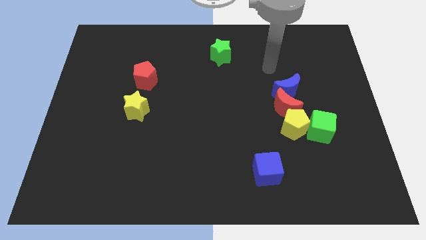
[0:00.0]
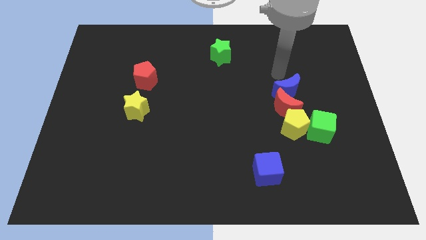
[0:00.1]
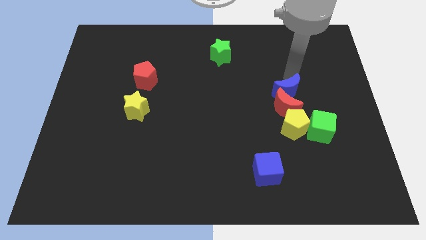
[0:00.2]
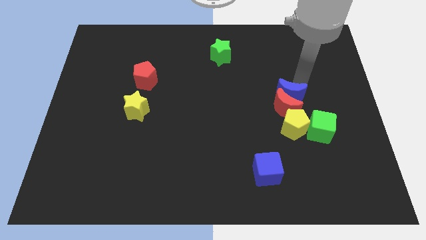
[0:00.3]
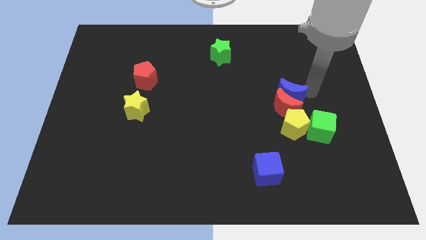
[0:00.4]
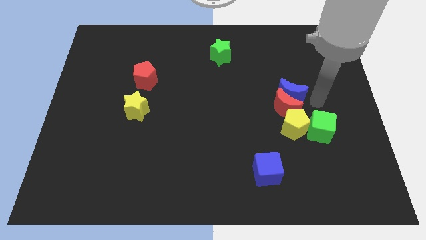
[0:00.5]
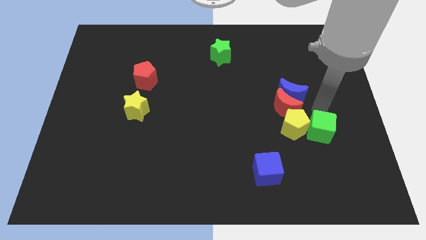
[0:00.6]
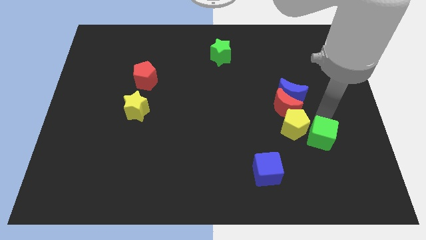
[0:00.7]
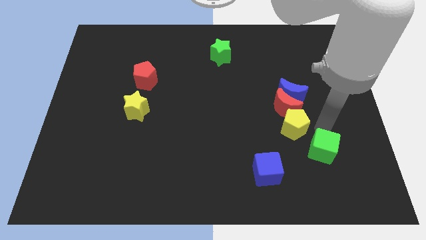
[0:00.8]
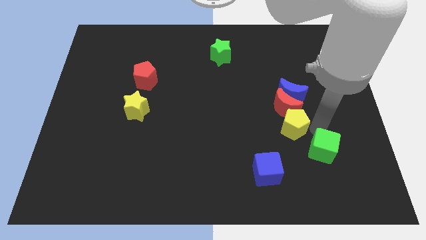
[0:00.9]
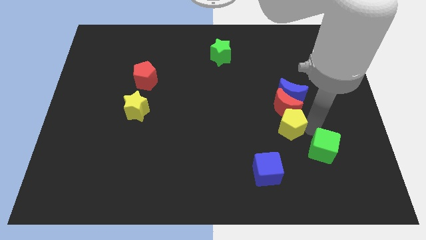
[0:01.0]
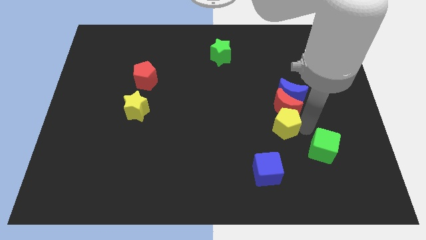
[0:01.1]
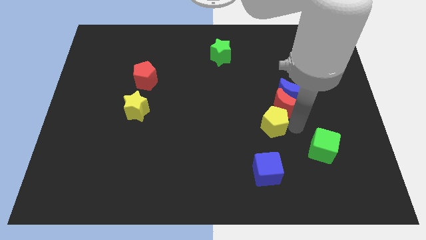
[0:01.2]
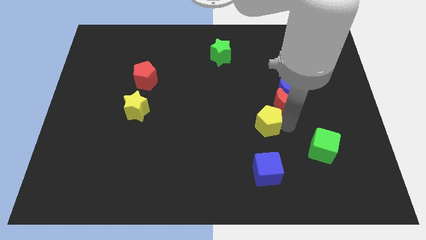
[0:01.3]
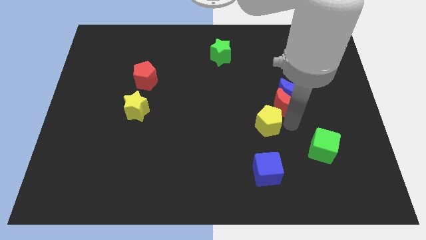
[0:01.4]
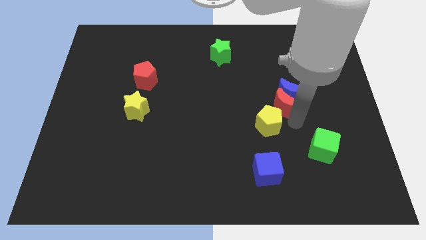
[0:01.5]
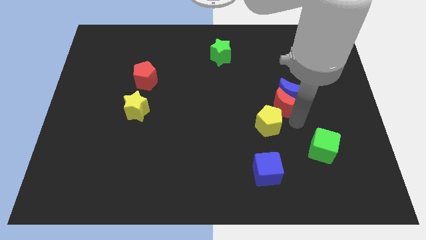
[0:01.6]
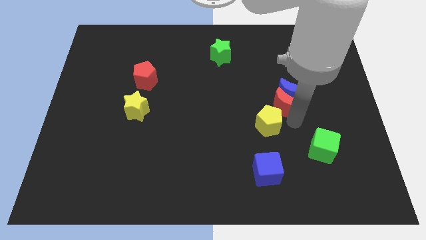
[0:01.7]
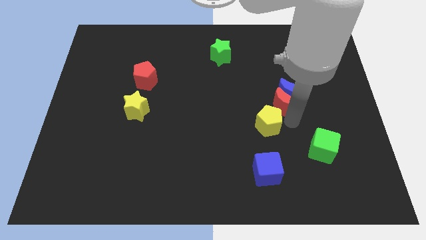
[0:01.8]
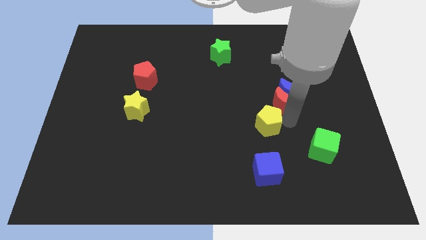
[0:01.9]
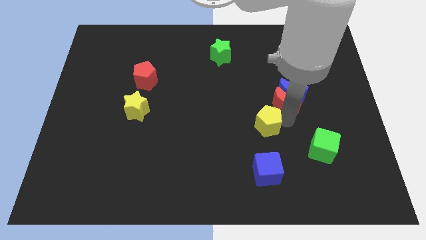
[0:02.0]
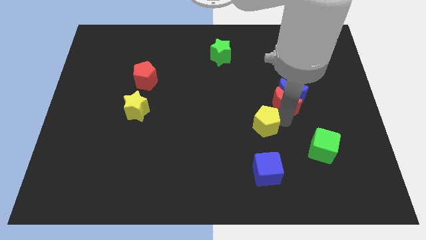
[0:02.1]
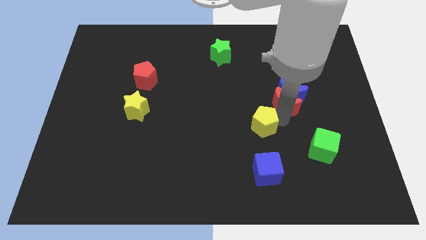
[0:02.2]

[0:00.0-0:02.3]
slightly move the yellow pentagon to the left

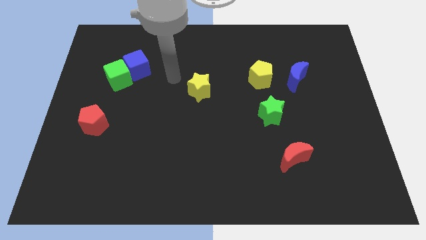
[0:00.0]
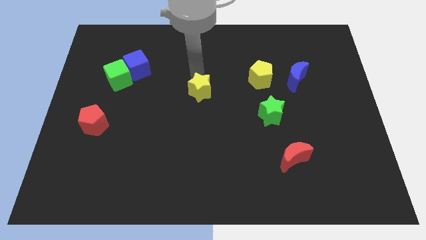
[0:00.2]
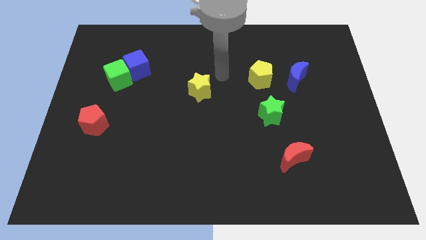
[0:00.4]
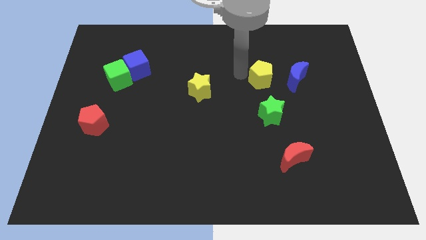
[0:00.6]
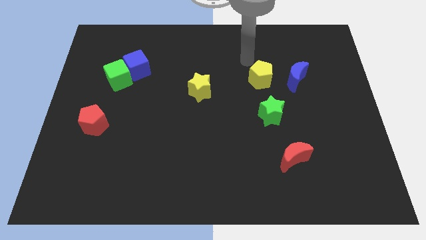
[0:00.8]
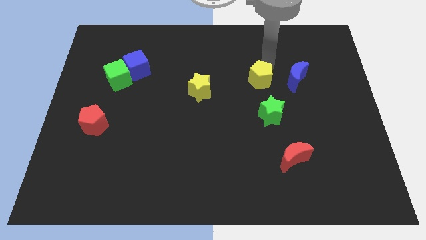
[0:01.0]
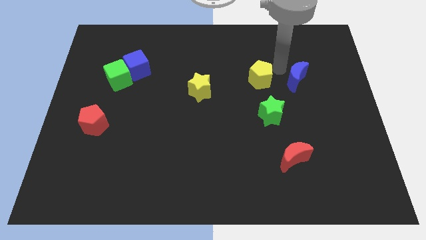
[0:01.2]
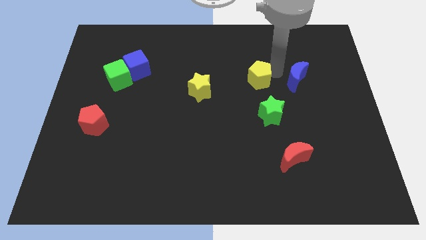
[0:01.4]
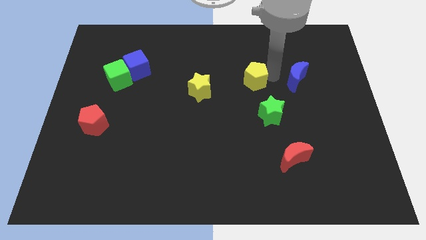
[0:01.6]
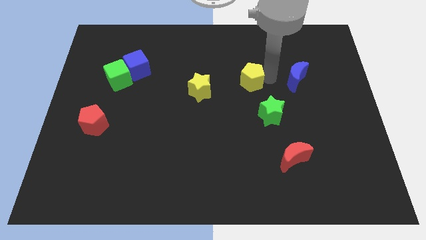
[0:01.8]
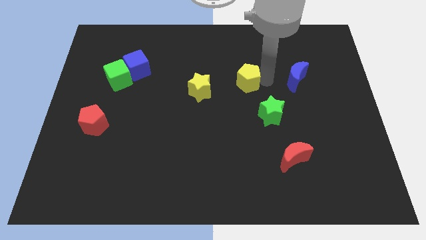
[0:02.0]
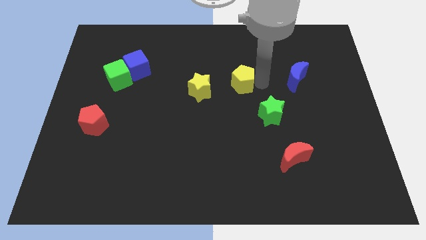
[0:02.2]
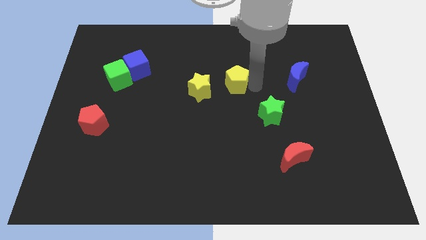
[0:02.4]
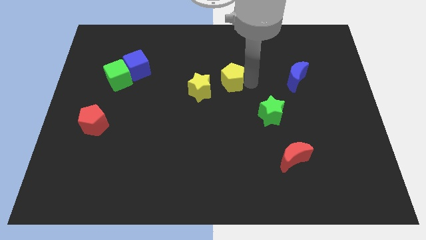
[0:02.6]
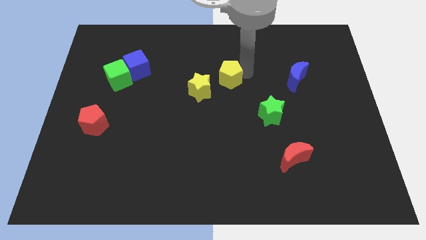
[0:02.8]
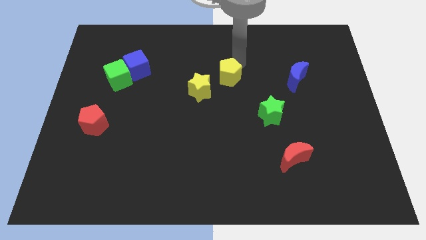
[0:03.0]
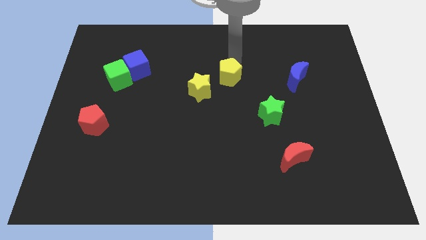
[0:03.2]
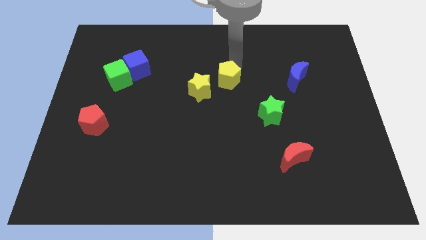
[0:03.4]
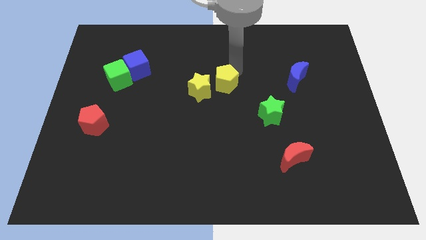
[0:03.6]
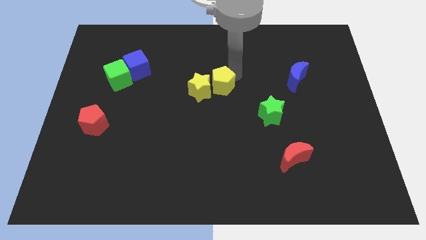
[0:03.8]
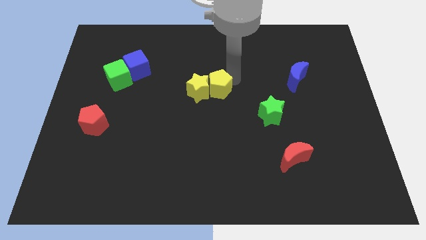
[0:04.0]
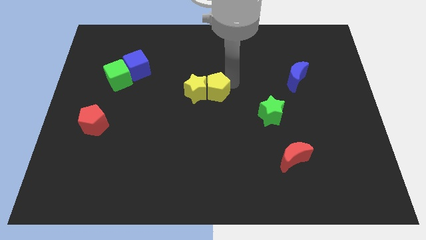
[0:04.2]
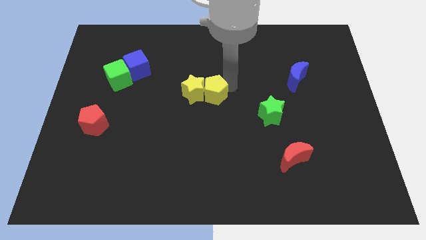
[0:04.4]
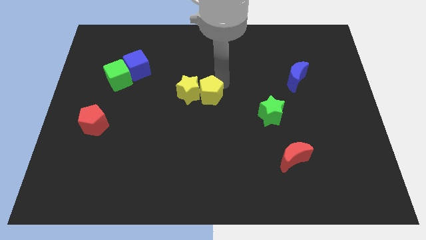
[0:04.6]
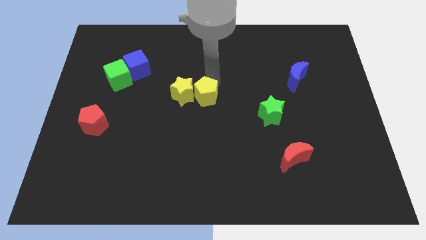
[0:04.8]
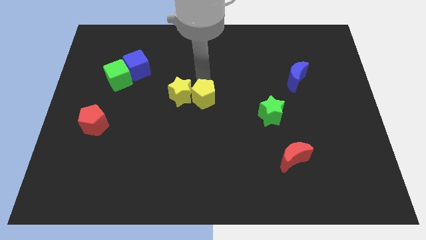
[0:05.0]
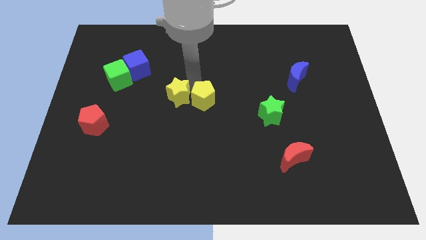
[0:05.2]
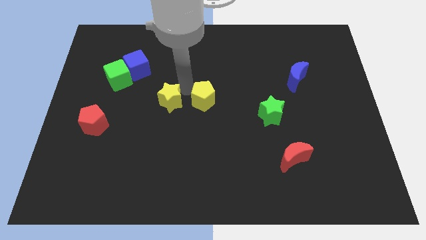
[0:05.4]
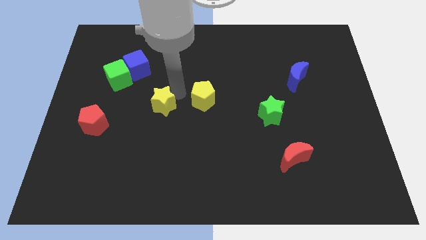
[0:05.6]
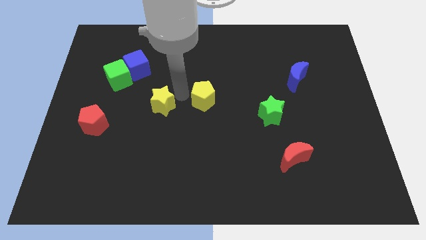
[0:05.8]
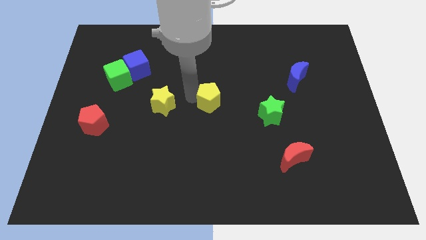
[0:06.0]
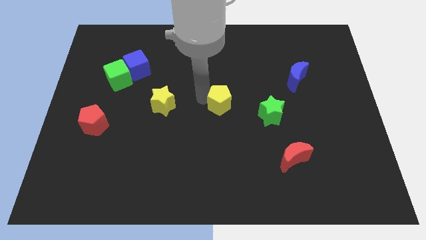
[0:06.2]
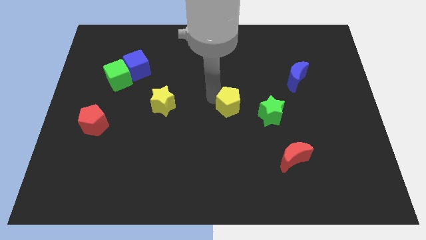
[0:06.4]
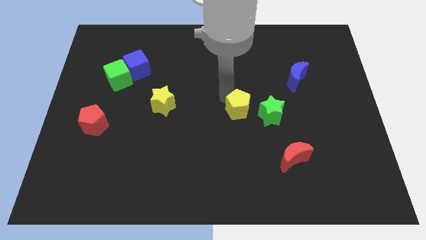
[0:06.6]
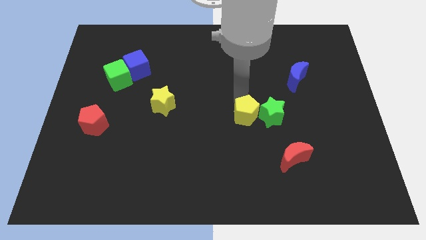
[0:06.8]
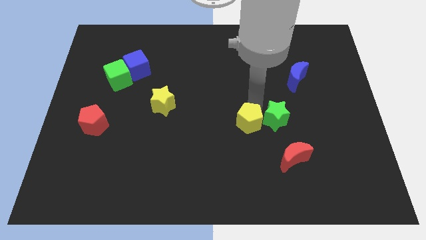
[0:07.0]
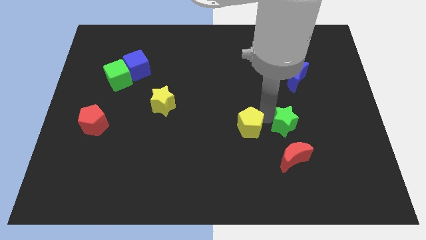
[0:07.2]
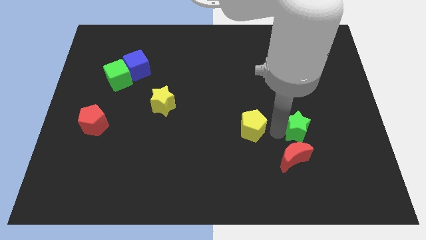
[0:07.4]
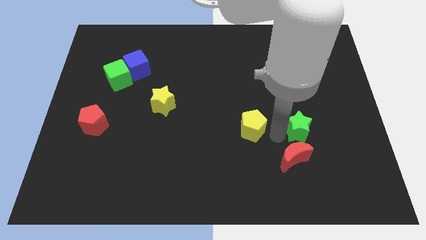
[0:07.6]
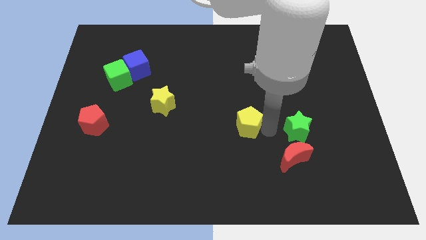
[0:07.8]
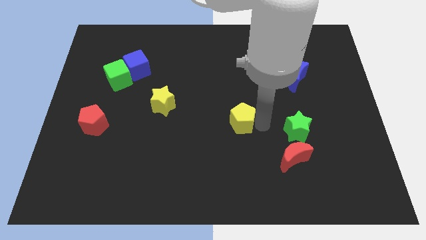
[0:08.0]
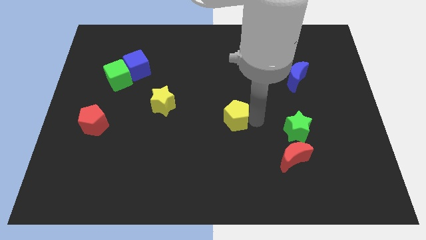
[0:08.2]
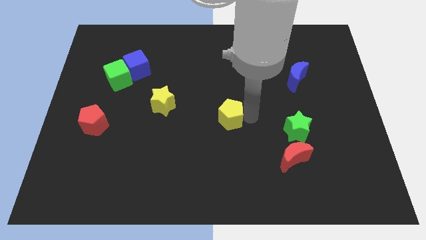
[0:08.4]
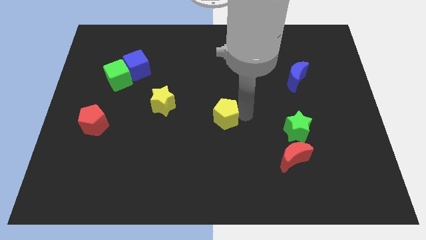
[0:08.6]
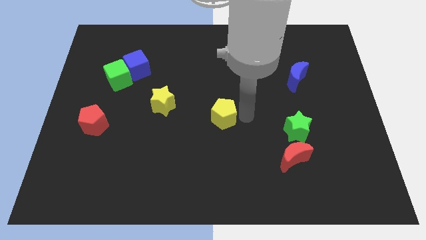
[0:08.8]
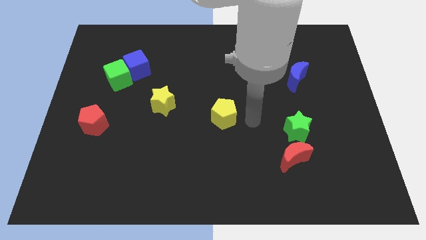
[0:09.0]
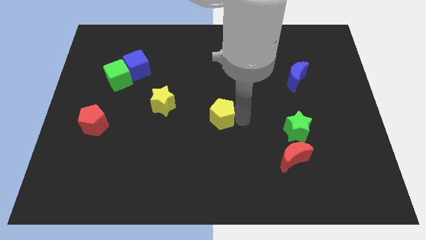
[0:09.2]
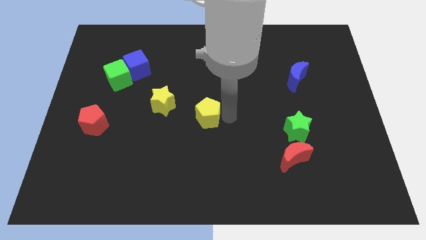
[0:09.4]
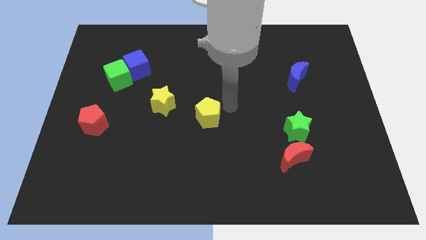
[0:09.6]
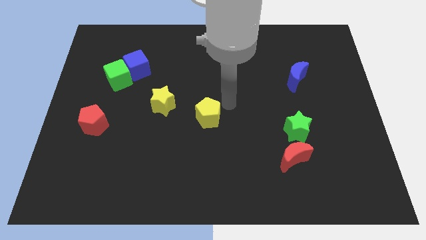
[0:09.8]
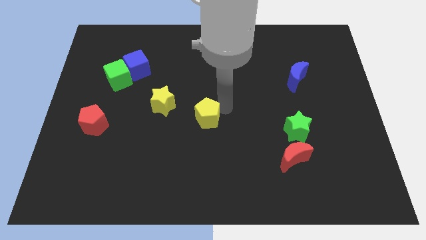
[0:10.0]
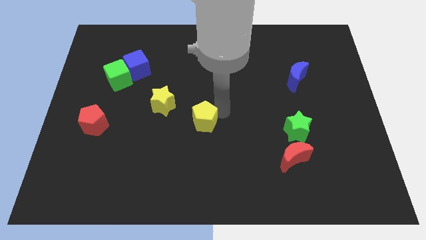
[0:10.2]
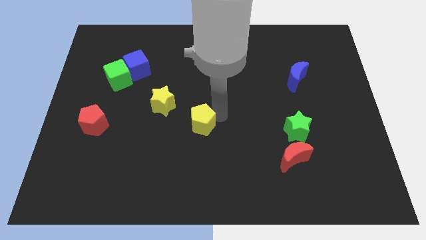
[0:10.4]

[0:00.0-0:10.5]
push the yellow pentagon downwards and to the left diagonally

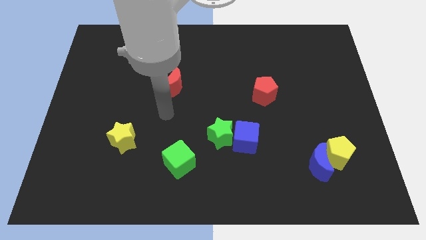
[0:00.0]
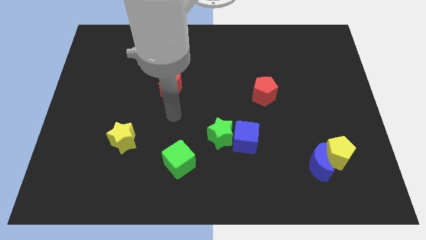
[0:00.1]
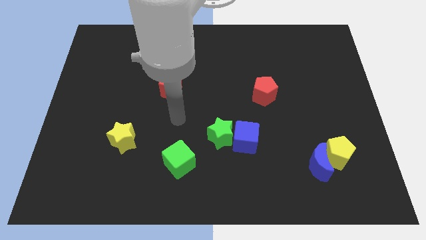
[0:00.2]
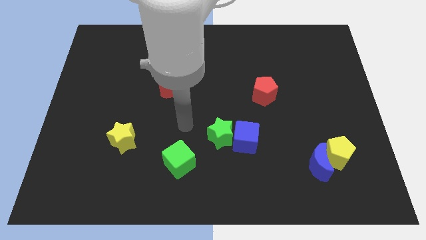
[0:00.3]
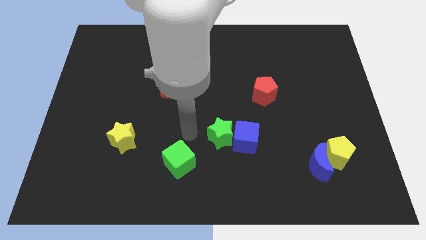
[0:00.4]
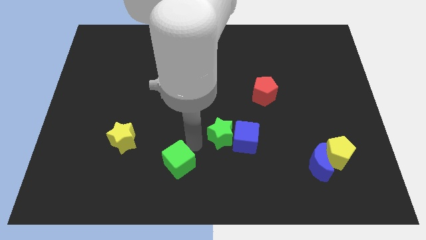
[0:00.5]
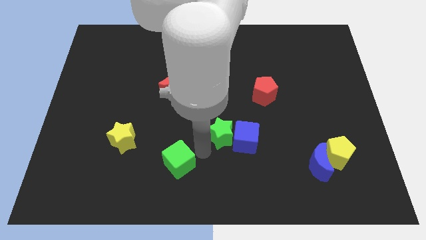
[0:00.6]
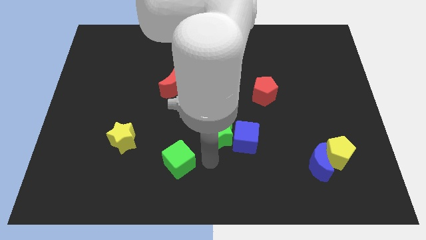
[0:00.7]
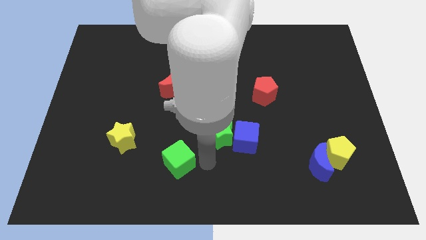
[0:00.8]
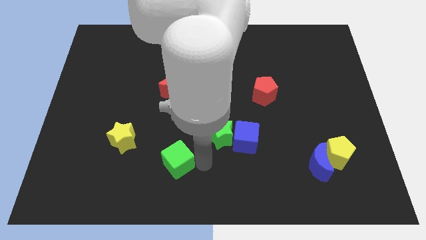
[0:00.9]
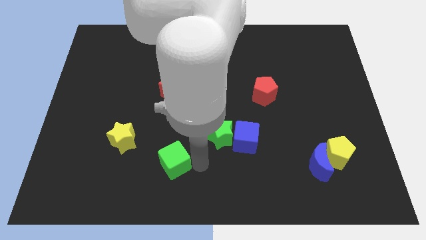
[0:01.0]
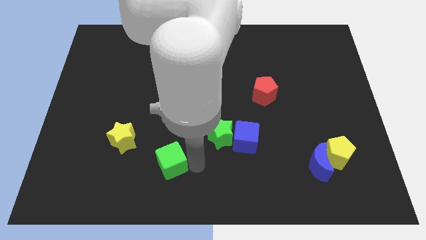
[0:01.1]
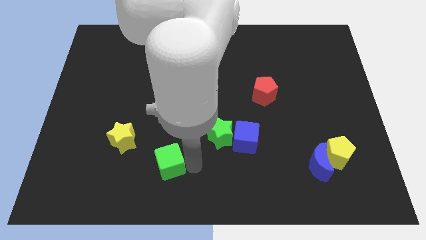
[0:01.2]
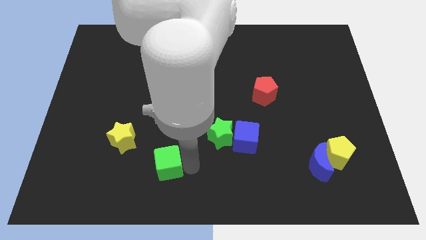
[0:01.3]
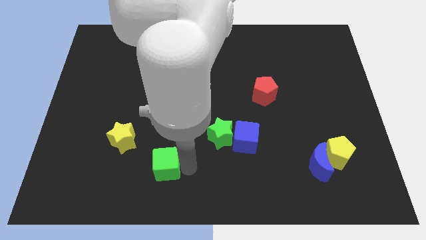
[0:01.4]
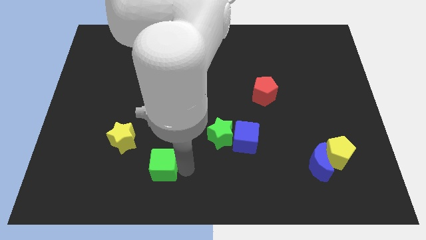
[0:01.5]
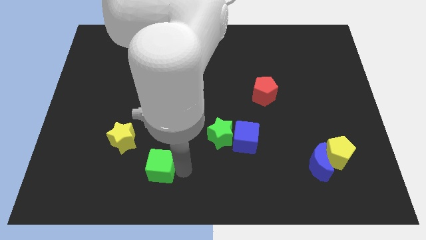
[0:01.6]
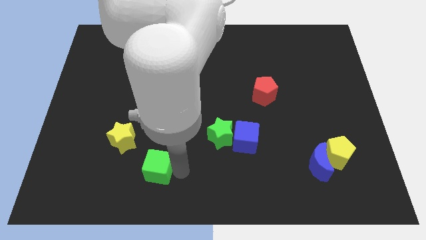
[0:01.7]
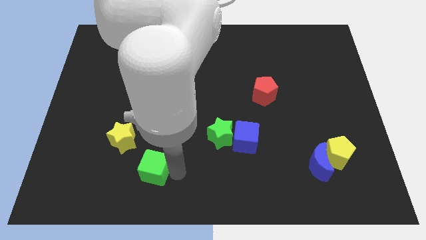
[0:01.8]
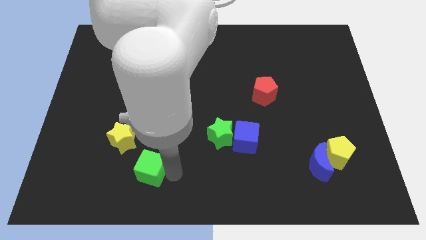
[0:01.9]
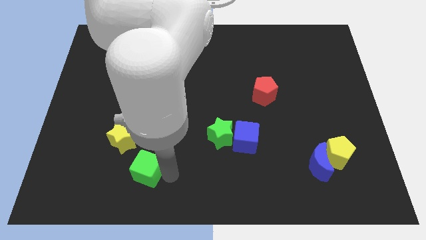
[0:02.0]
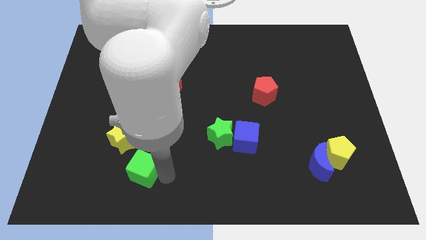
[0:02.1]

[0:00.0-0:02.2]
slightly push the green cube to the left
